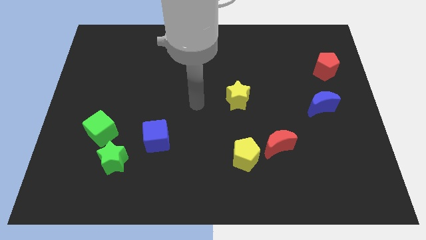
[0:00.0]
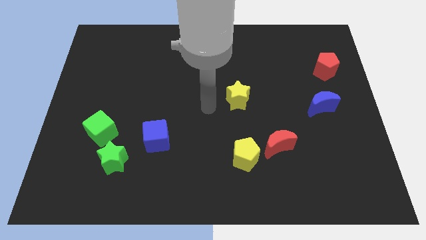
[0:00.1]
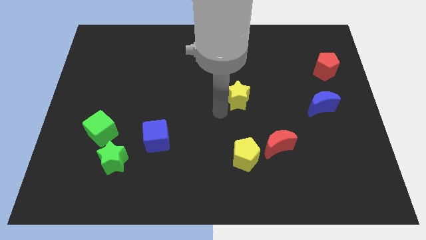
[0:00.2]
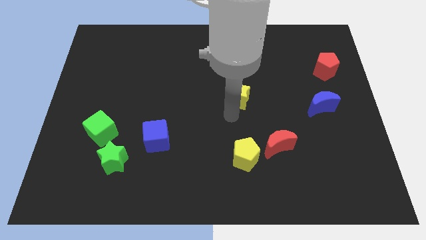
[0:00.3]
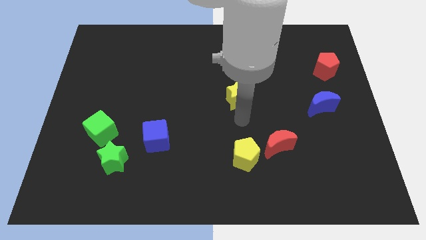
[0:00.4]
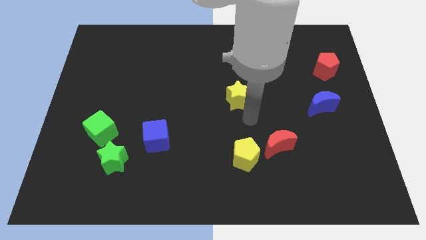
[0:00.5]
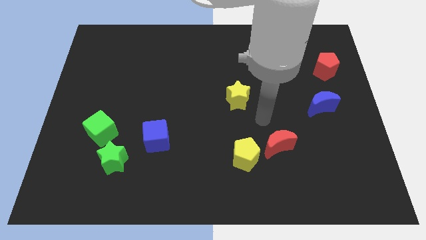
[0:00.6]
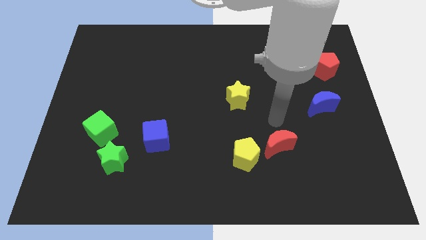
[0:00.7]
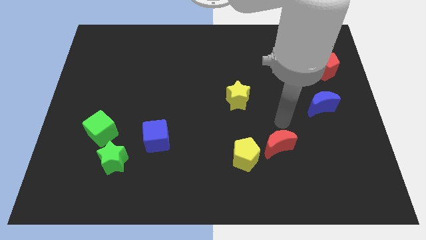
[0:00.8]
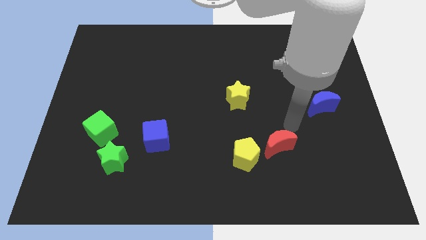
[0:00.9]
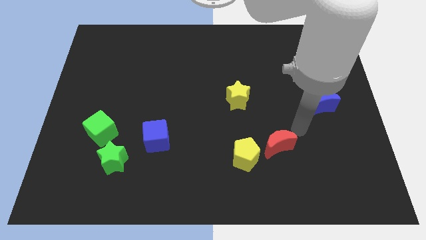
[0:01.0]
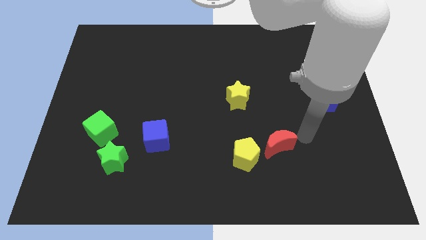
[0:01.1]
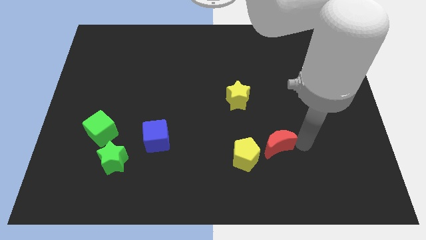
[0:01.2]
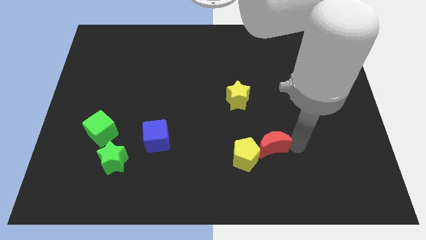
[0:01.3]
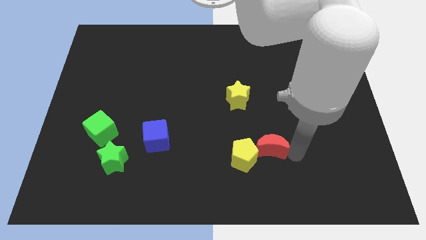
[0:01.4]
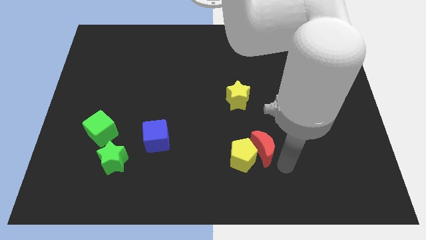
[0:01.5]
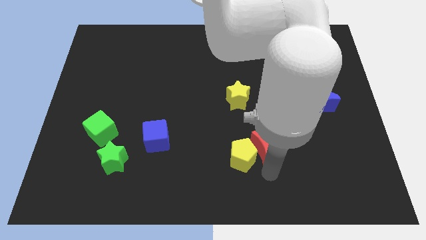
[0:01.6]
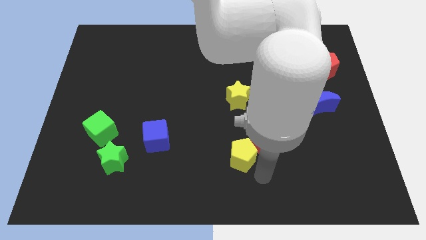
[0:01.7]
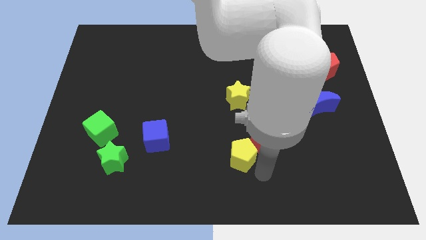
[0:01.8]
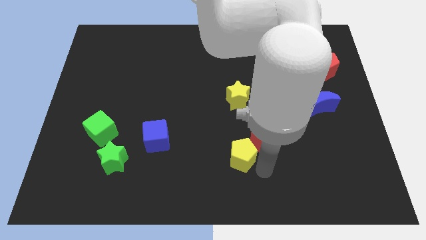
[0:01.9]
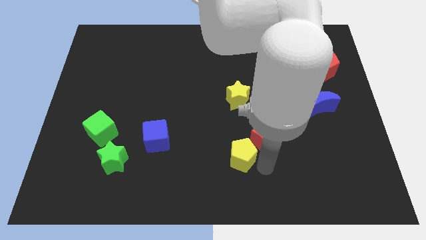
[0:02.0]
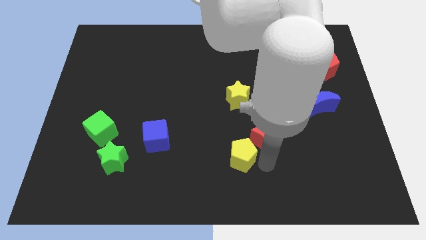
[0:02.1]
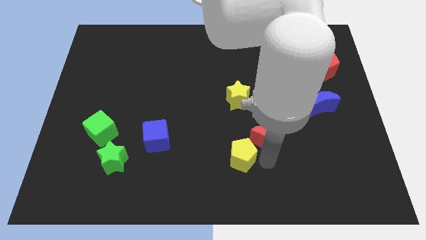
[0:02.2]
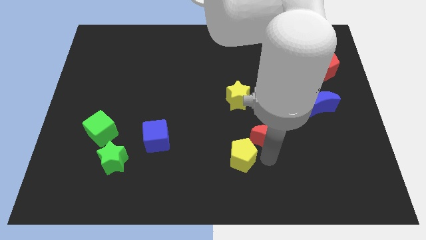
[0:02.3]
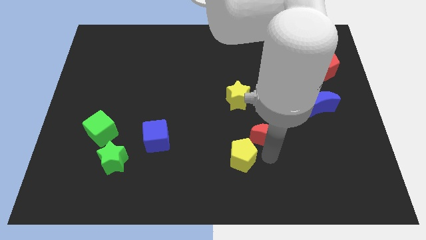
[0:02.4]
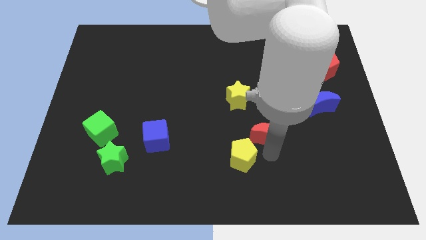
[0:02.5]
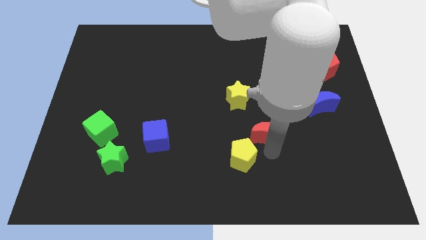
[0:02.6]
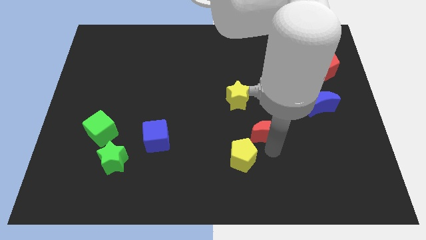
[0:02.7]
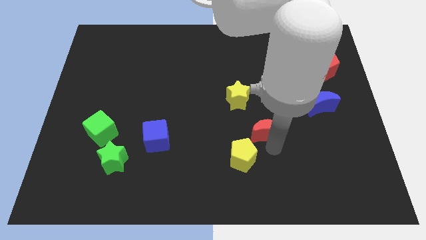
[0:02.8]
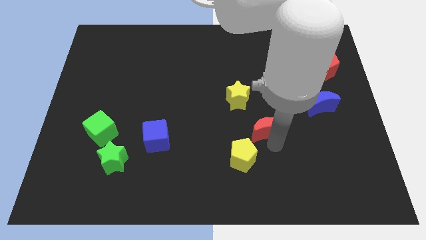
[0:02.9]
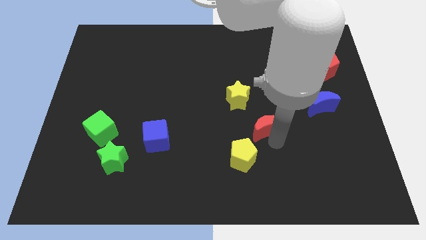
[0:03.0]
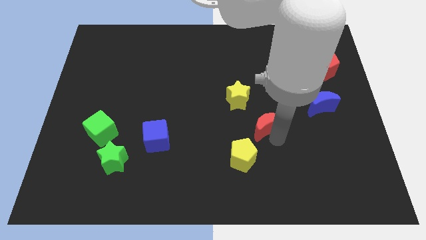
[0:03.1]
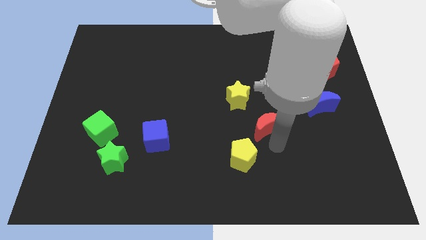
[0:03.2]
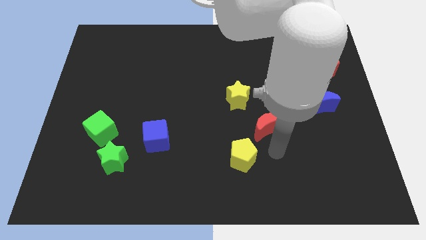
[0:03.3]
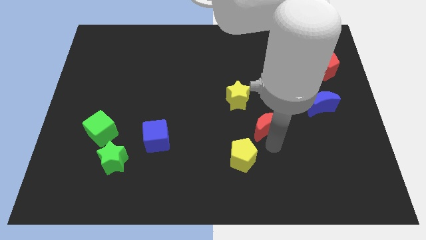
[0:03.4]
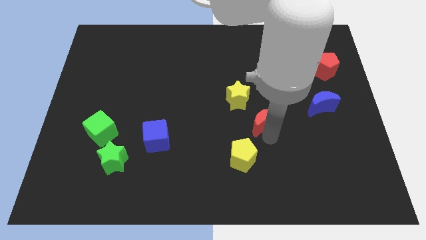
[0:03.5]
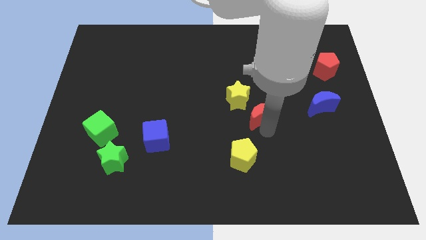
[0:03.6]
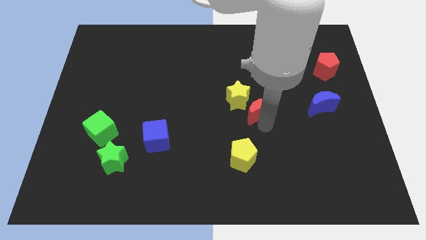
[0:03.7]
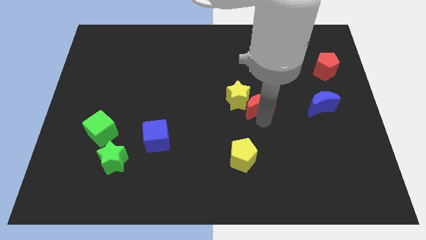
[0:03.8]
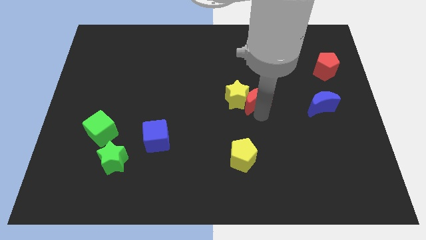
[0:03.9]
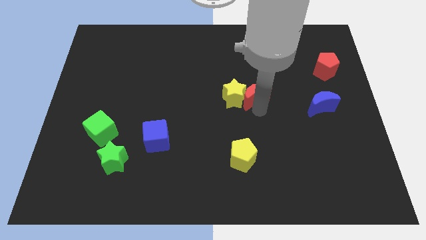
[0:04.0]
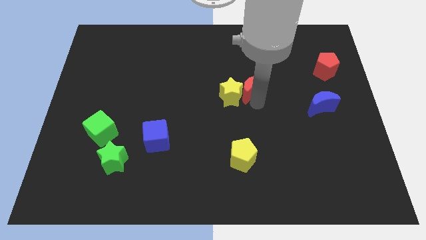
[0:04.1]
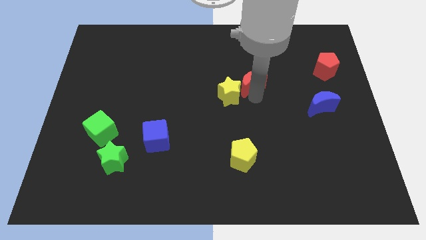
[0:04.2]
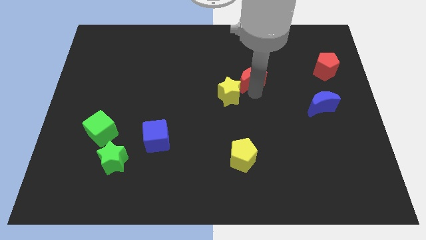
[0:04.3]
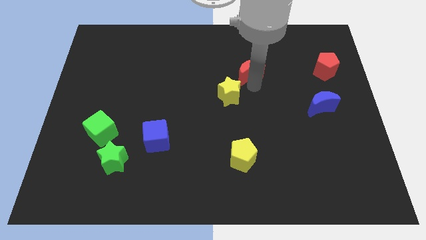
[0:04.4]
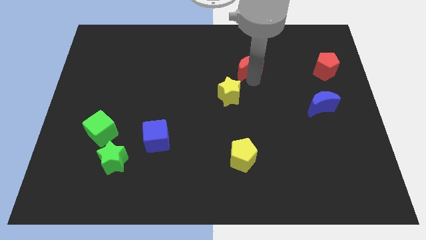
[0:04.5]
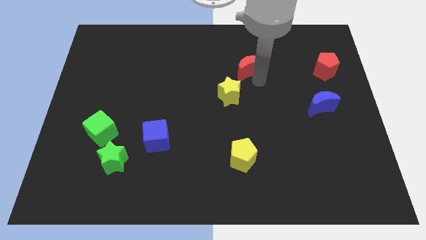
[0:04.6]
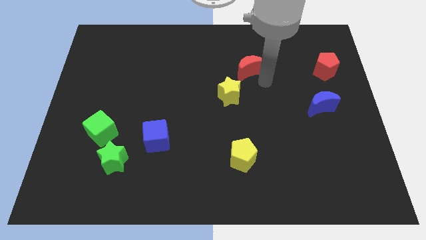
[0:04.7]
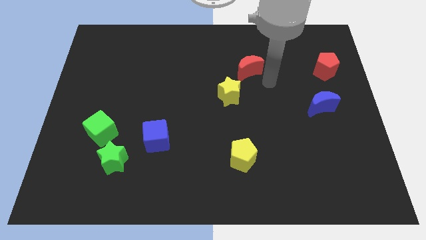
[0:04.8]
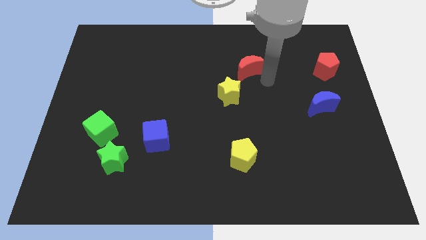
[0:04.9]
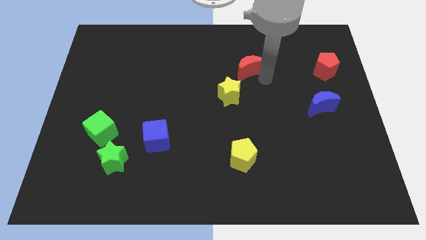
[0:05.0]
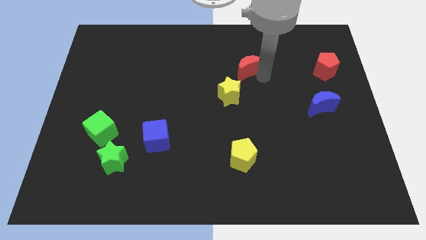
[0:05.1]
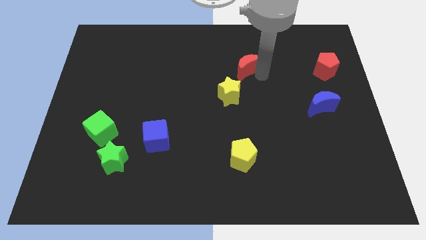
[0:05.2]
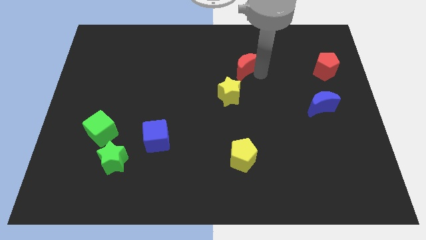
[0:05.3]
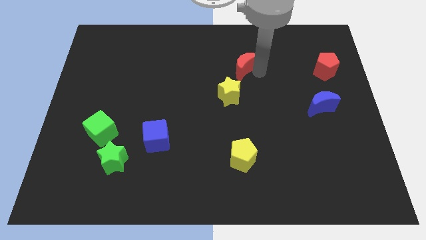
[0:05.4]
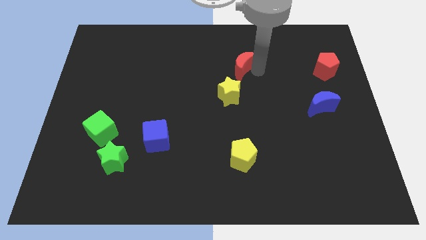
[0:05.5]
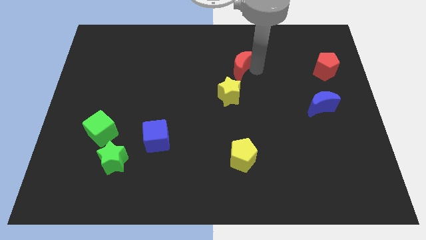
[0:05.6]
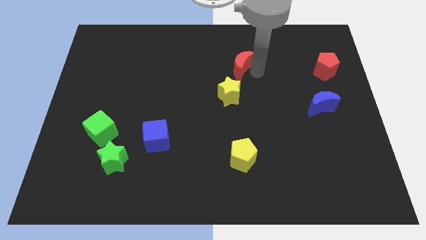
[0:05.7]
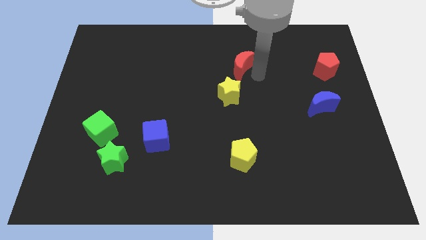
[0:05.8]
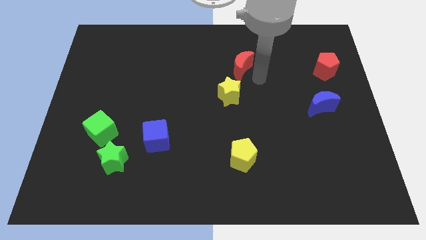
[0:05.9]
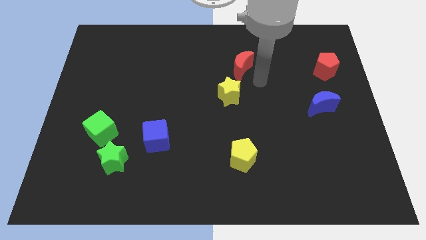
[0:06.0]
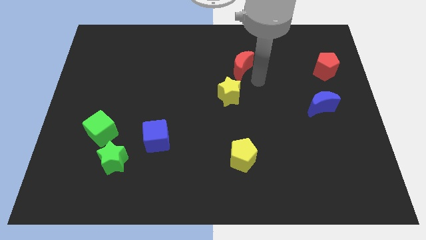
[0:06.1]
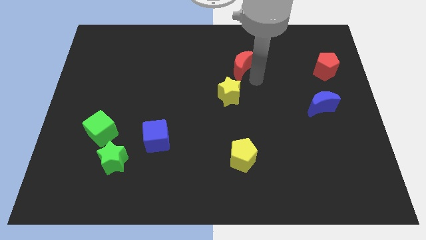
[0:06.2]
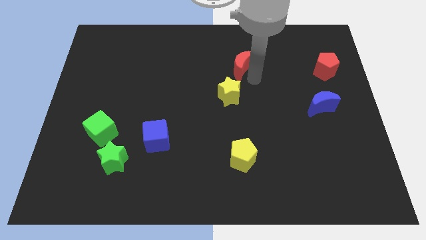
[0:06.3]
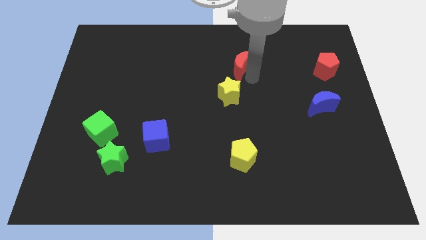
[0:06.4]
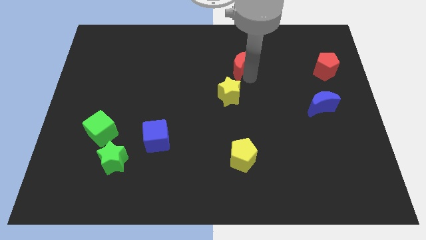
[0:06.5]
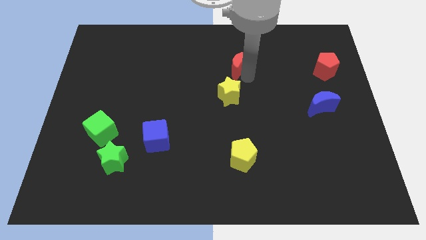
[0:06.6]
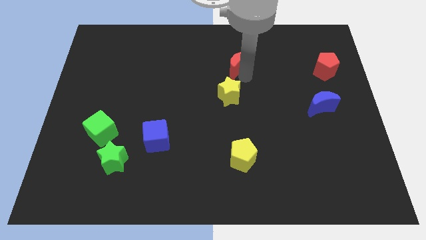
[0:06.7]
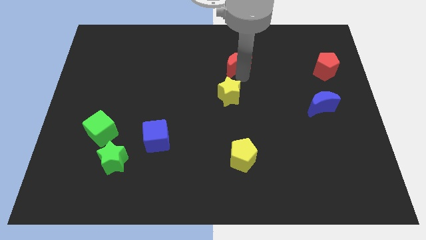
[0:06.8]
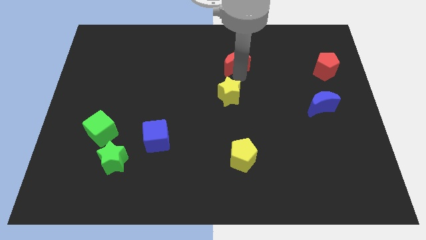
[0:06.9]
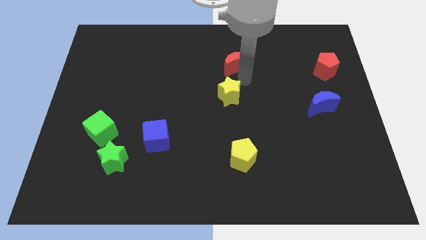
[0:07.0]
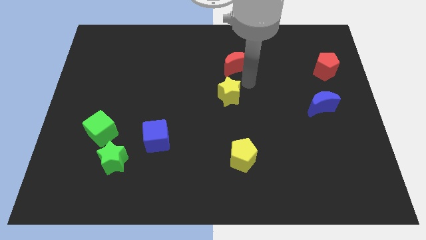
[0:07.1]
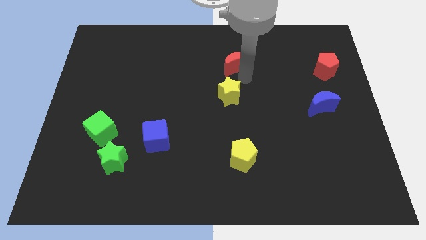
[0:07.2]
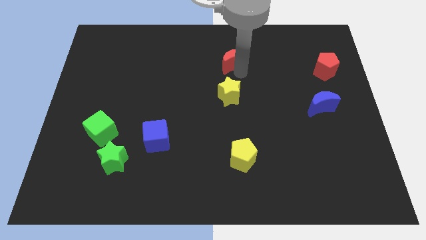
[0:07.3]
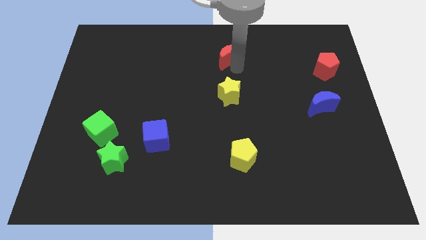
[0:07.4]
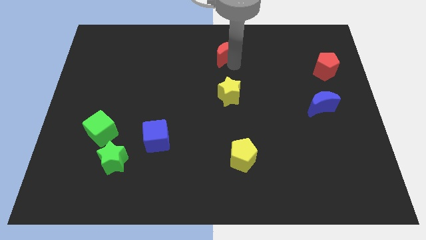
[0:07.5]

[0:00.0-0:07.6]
push the red moon to the top

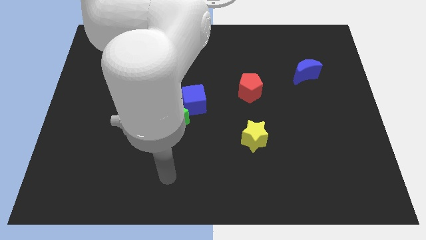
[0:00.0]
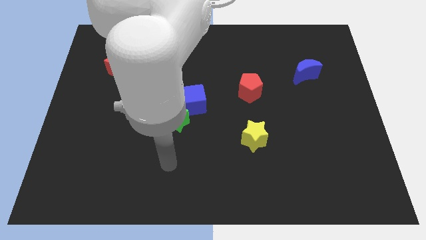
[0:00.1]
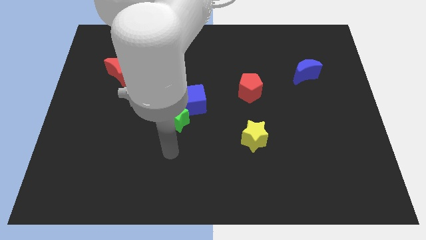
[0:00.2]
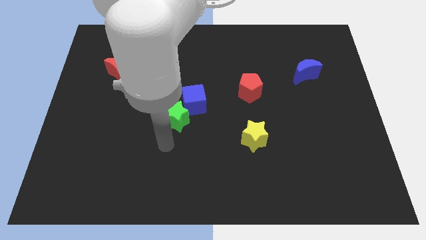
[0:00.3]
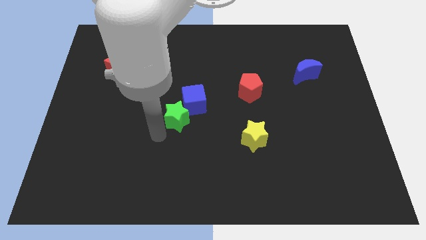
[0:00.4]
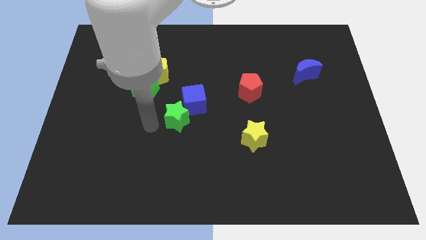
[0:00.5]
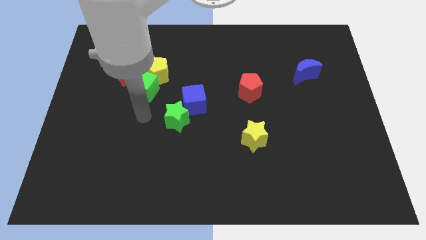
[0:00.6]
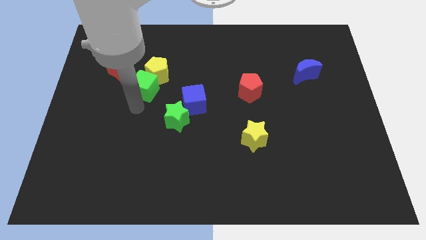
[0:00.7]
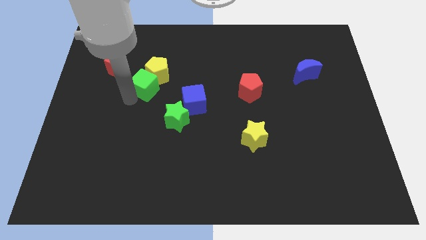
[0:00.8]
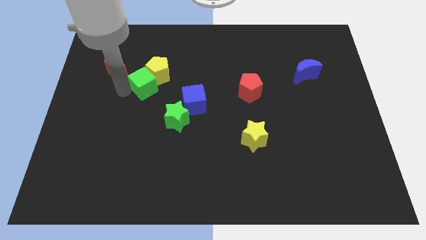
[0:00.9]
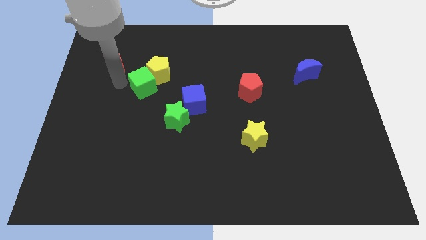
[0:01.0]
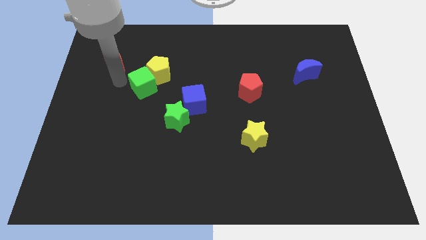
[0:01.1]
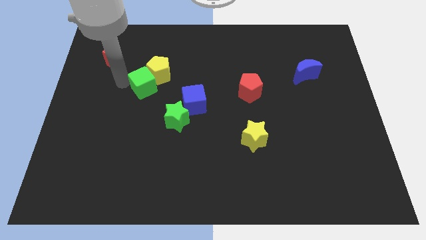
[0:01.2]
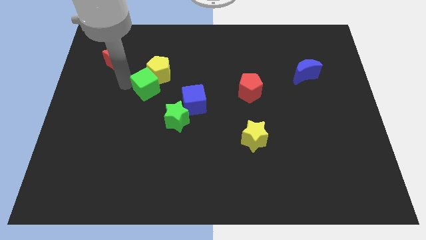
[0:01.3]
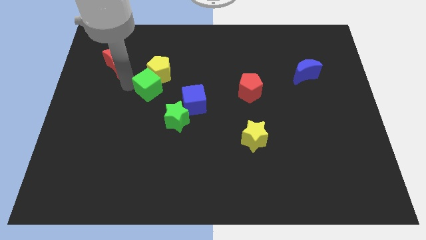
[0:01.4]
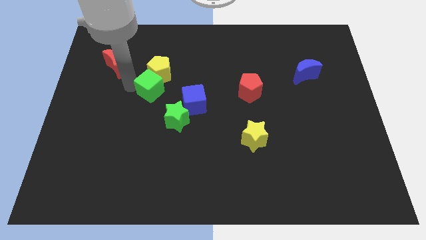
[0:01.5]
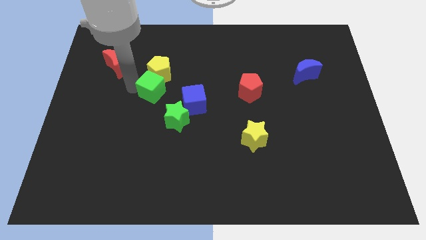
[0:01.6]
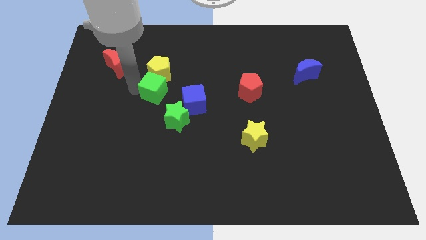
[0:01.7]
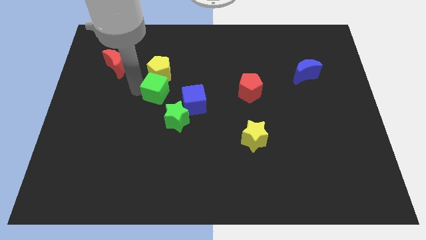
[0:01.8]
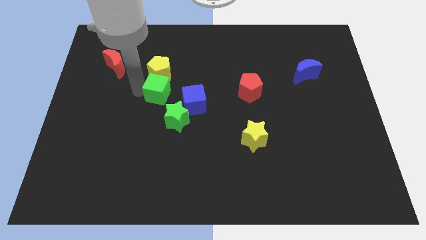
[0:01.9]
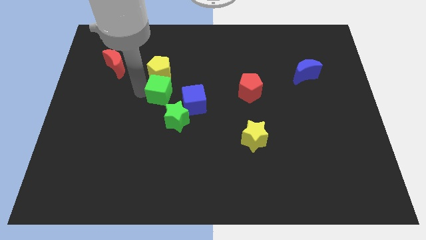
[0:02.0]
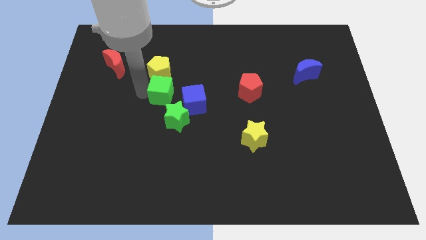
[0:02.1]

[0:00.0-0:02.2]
push the green cube to the middle of the board
